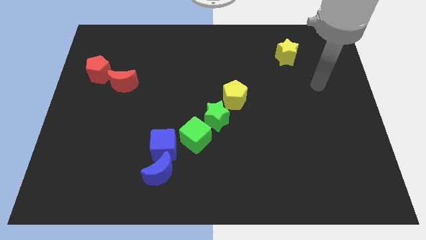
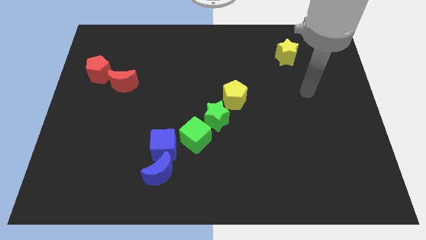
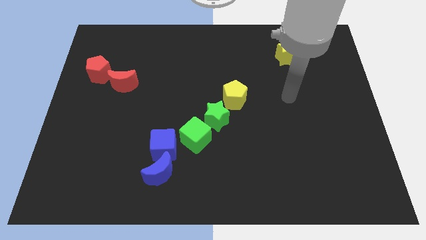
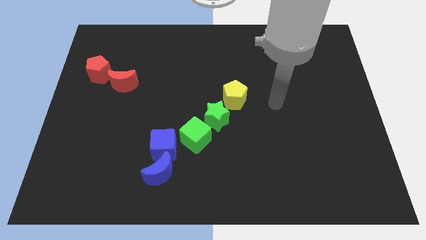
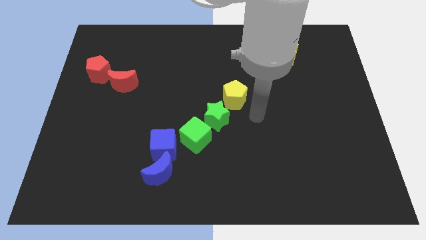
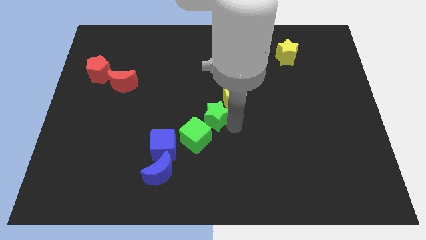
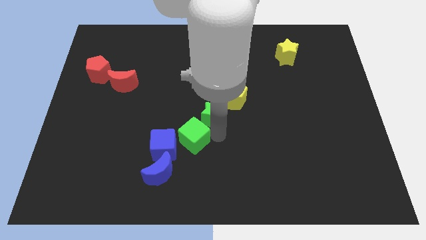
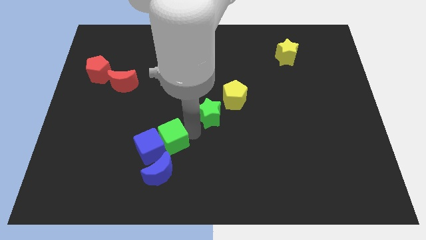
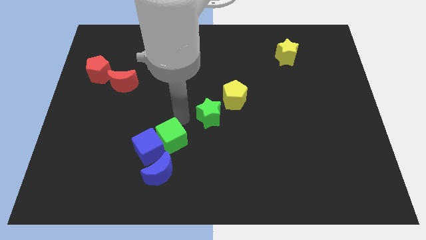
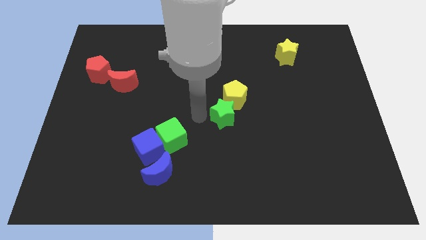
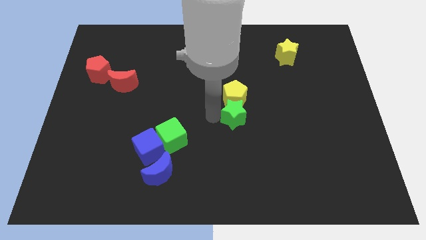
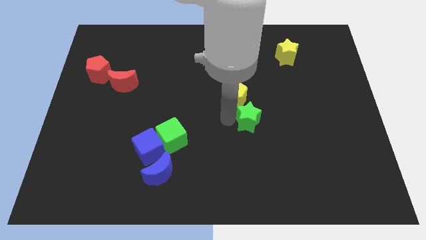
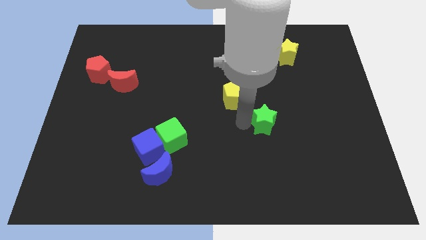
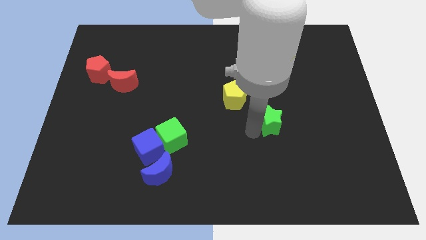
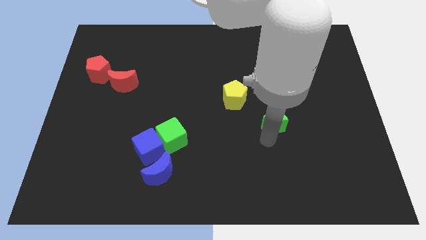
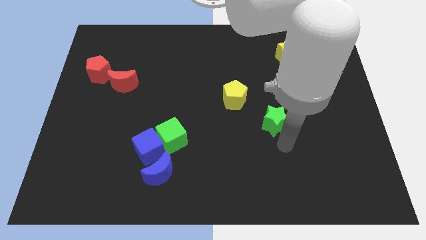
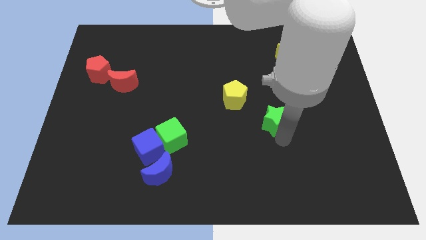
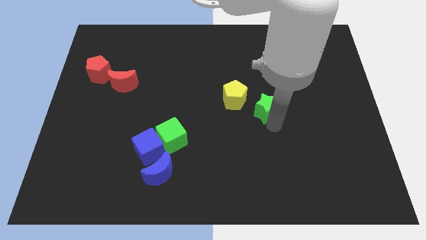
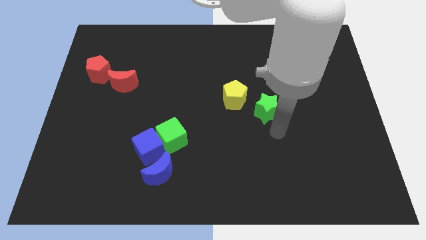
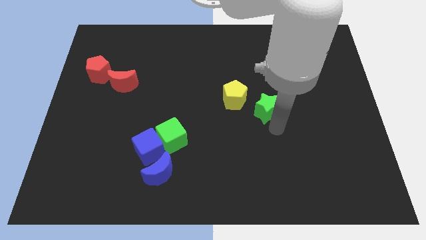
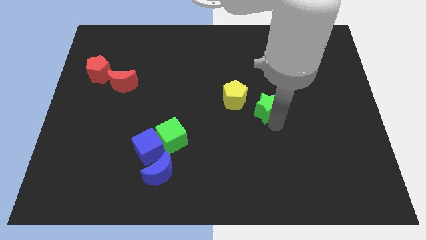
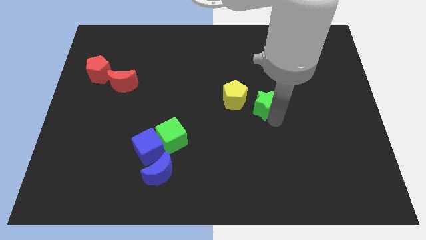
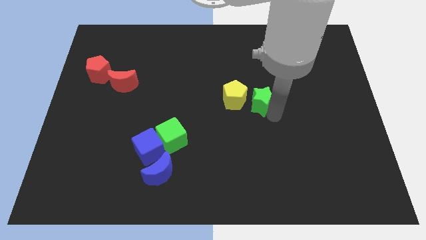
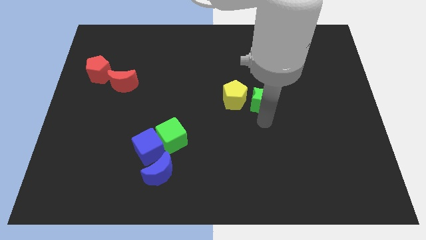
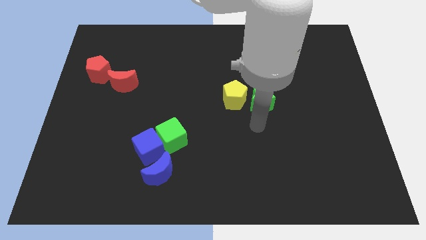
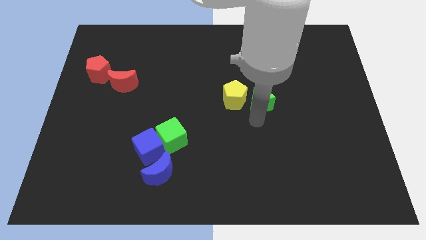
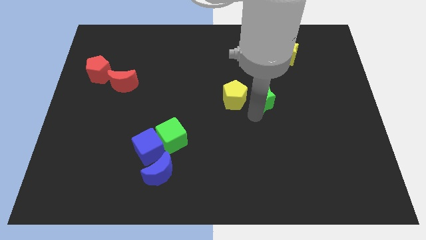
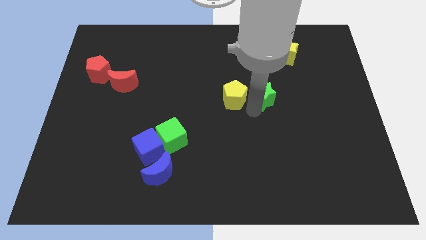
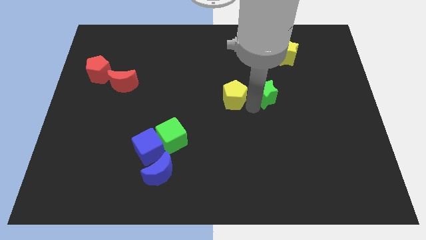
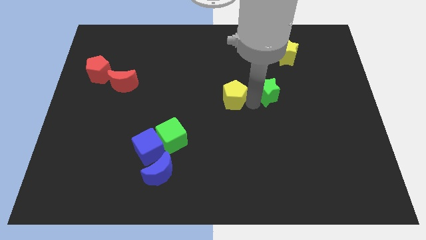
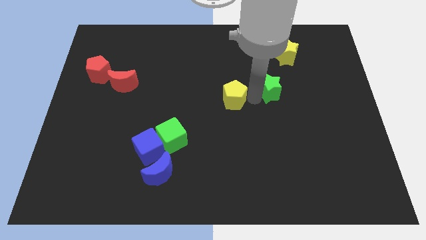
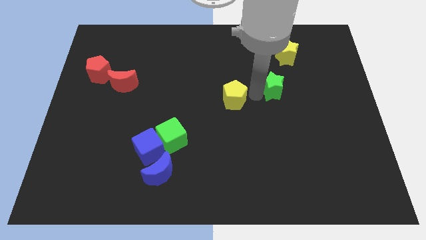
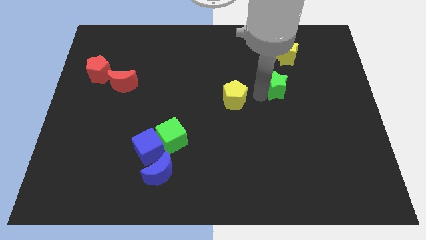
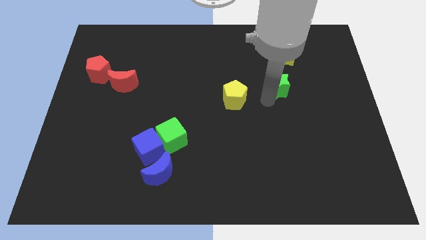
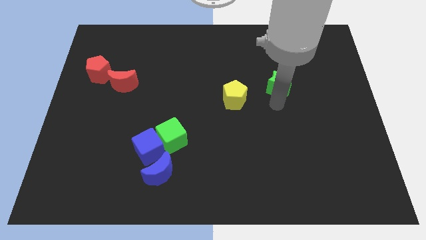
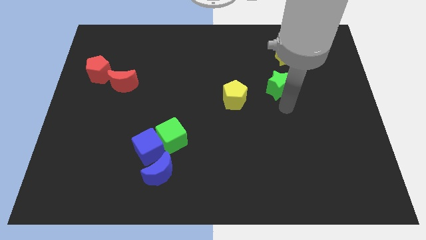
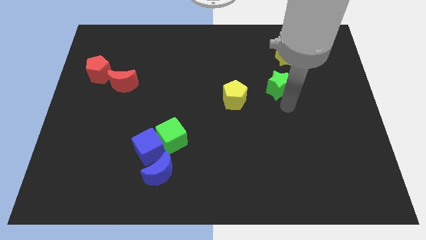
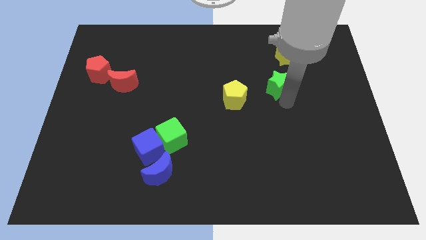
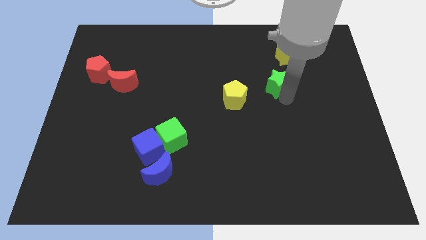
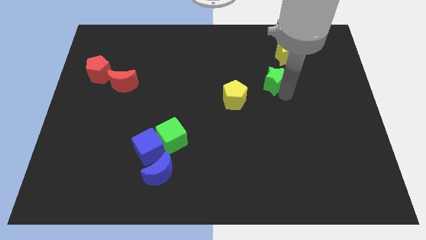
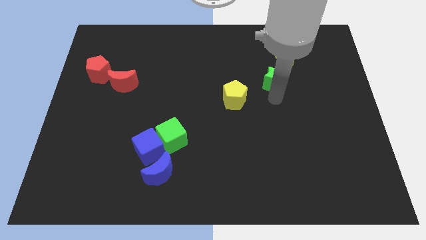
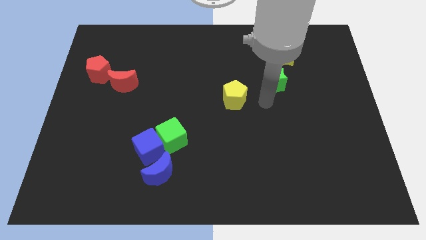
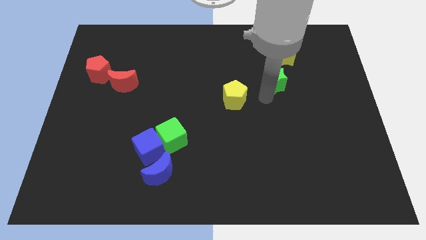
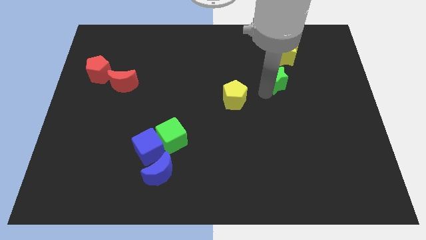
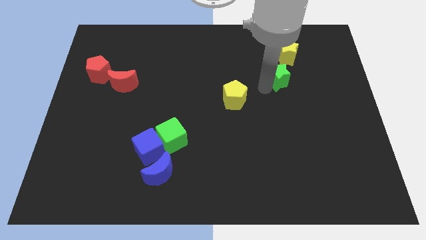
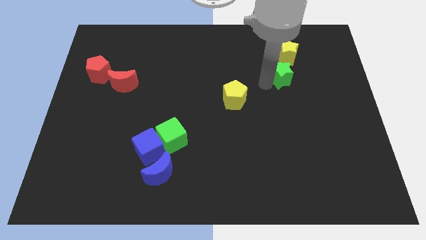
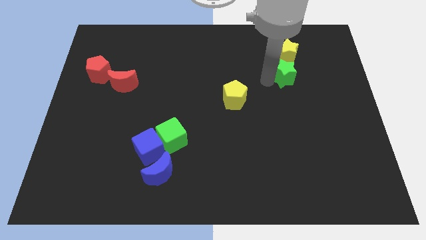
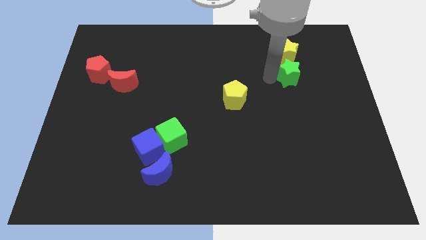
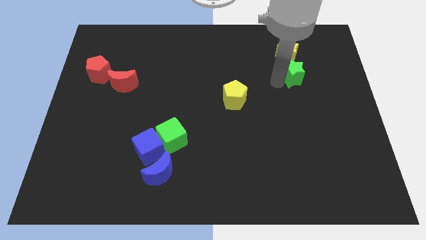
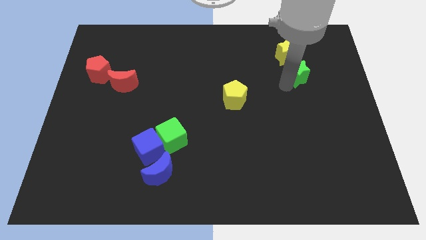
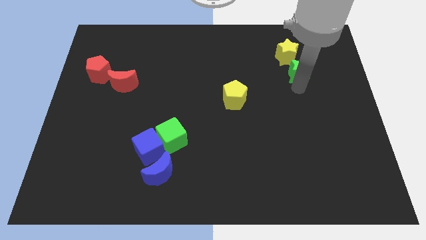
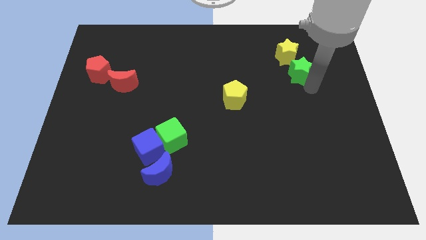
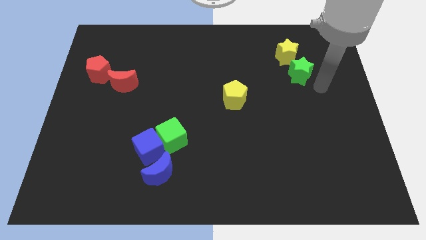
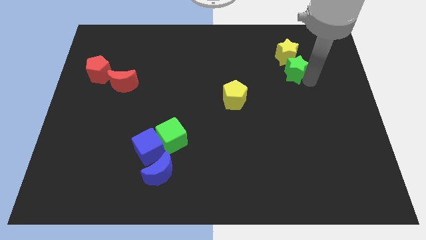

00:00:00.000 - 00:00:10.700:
put the green star close to the yellow star

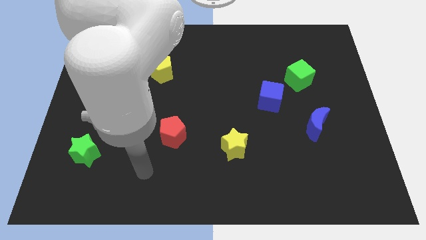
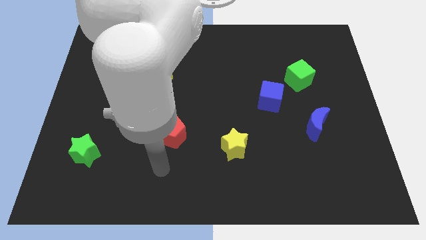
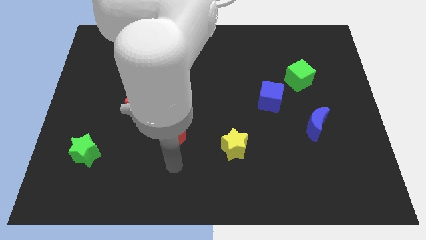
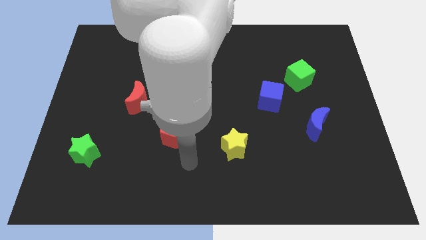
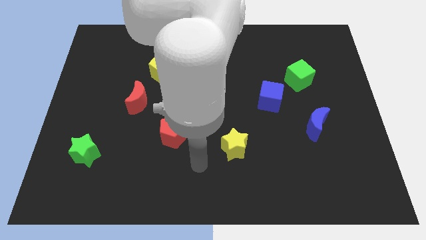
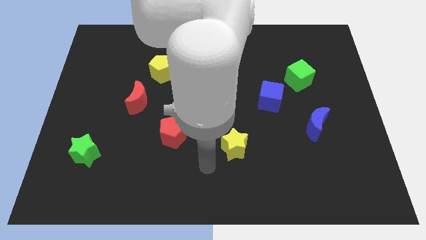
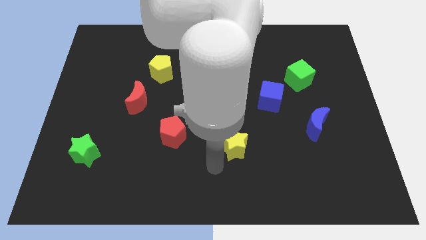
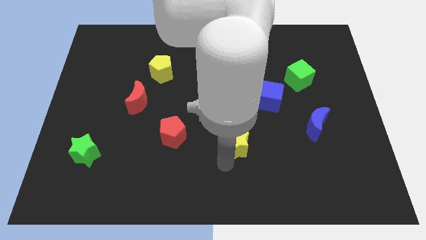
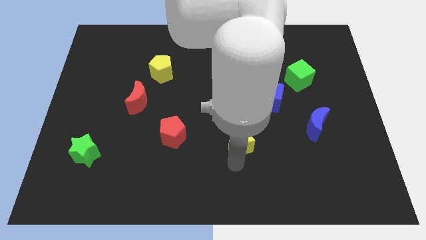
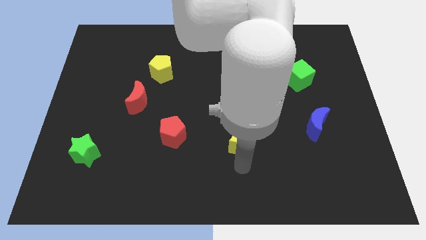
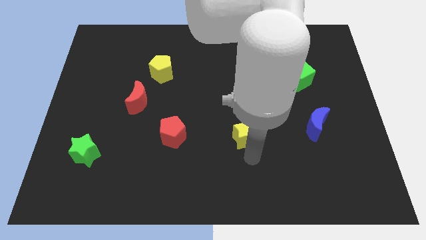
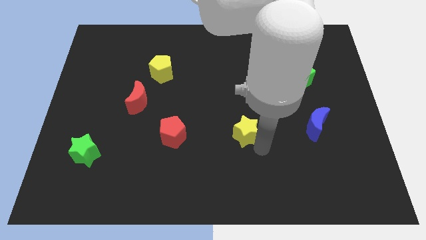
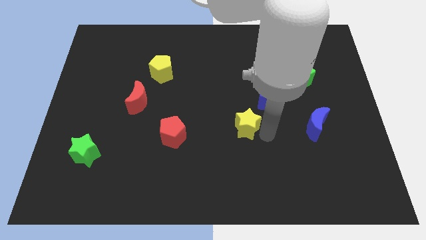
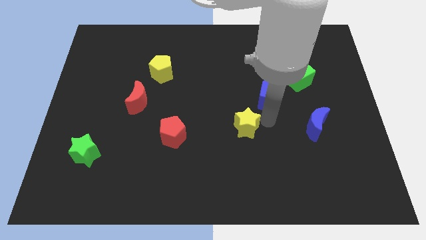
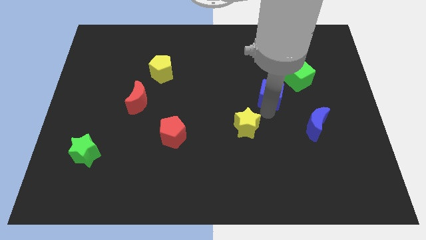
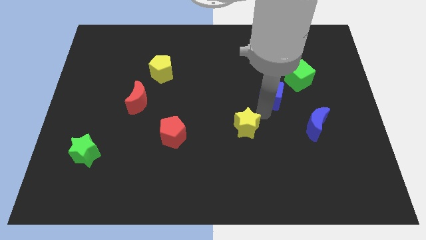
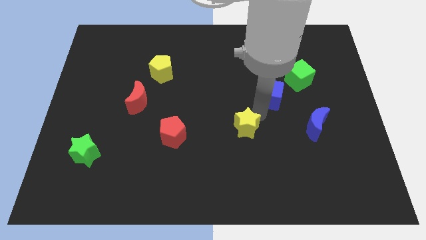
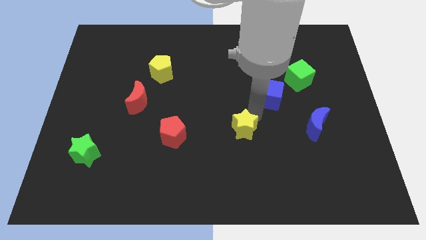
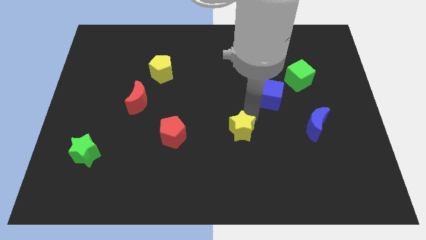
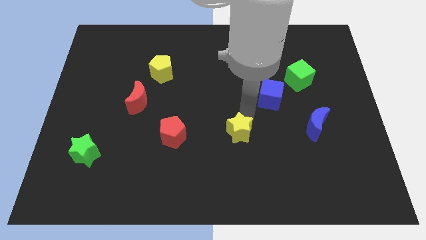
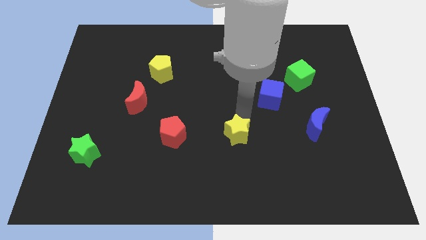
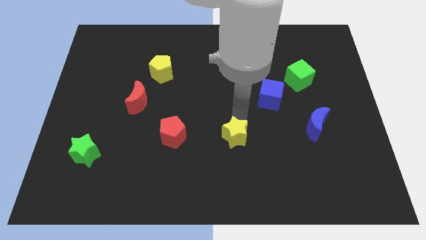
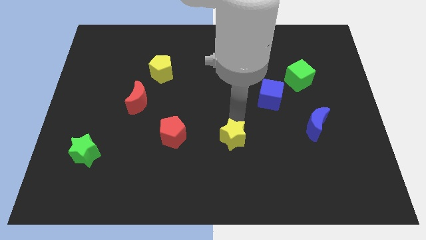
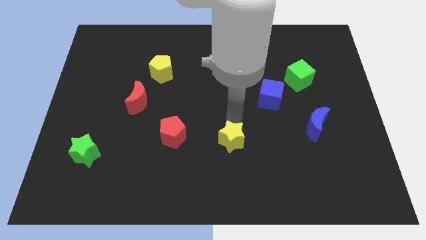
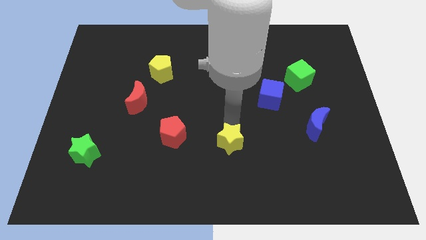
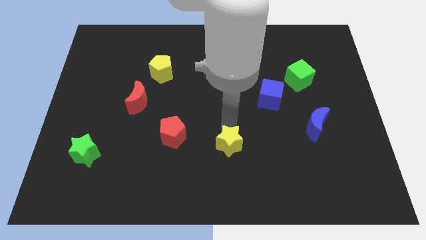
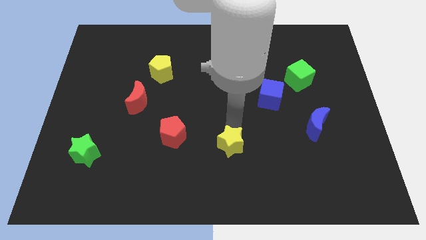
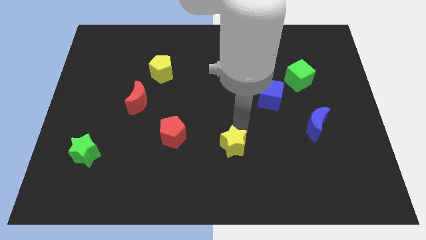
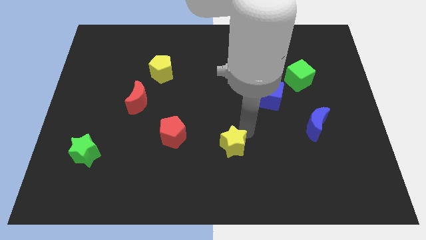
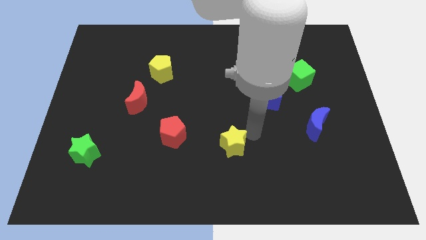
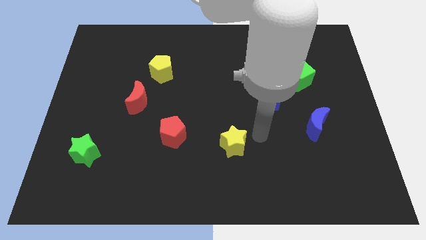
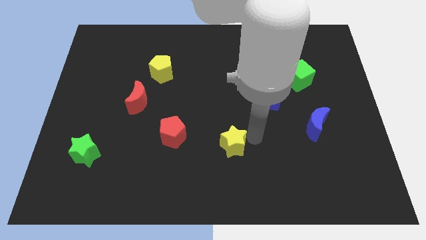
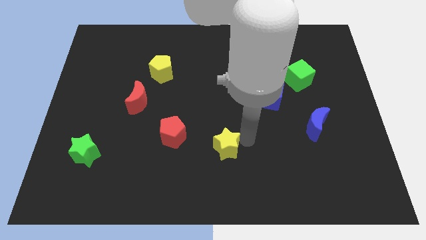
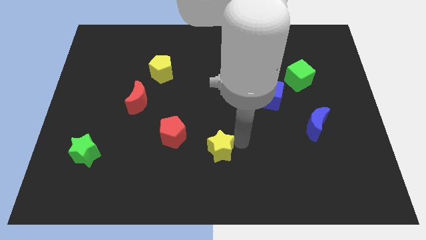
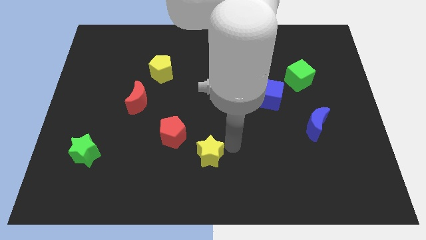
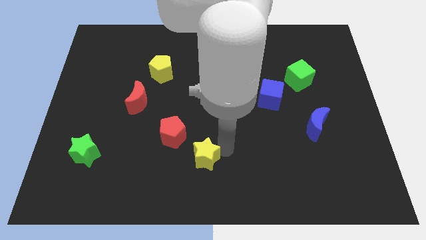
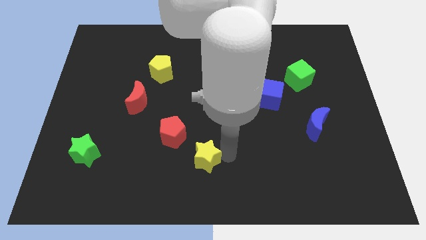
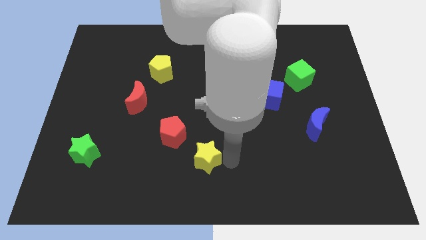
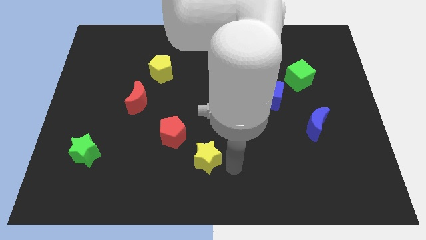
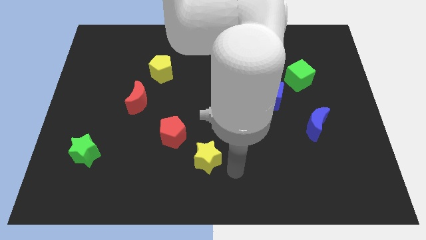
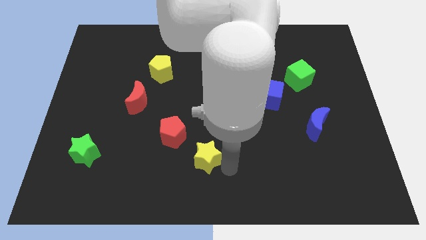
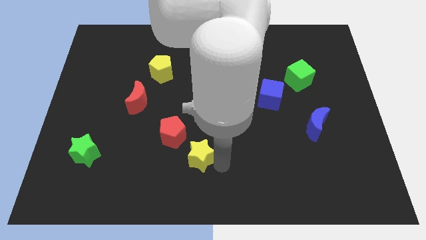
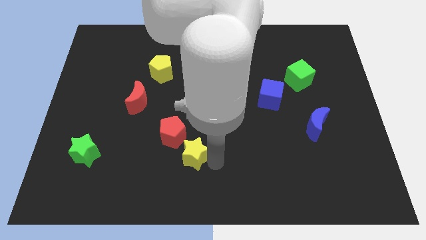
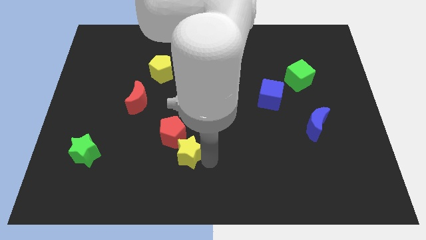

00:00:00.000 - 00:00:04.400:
push the yellow star to the red pentagon
